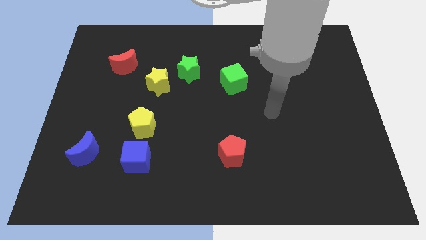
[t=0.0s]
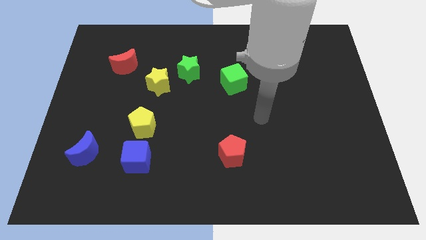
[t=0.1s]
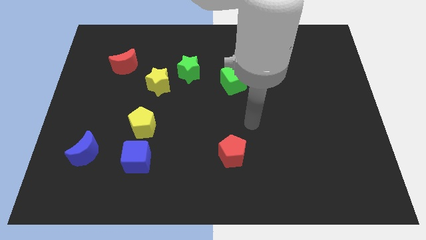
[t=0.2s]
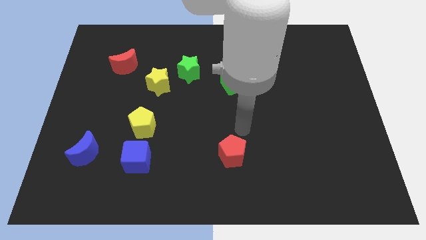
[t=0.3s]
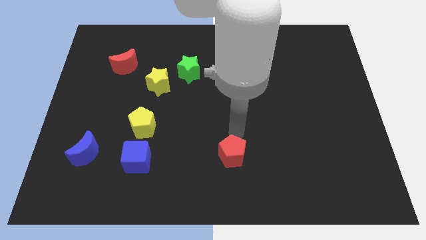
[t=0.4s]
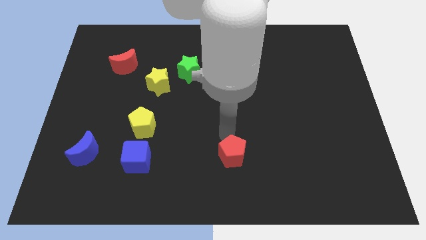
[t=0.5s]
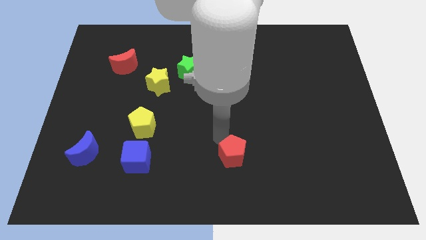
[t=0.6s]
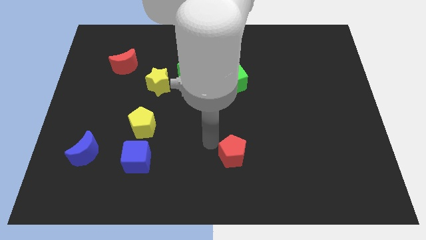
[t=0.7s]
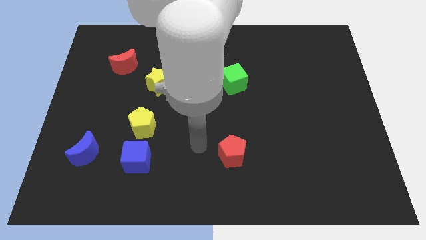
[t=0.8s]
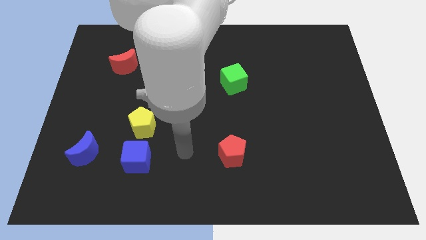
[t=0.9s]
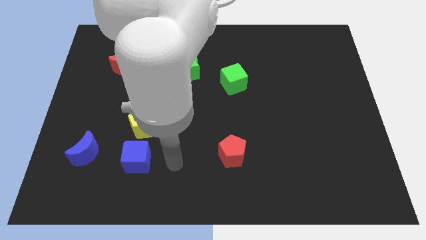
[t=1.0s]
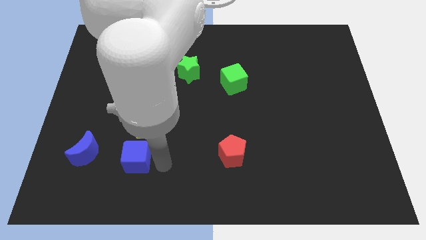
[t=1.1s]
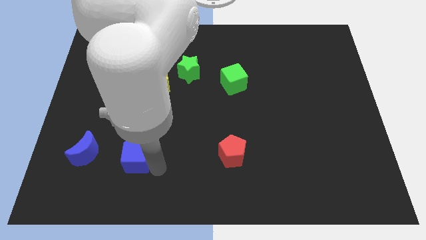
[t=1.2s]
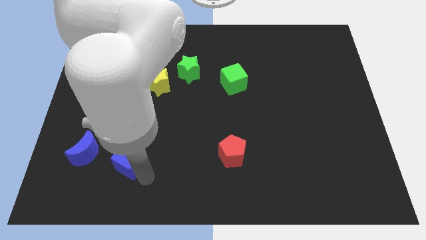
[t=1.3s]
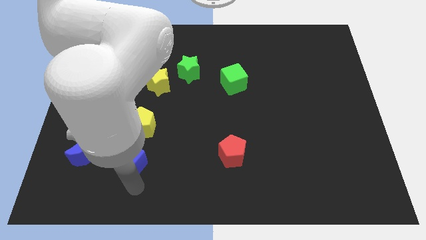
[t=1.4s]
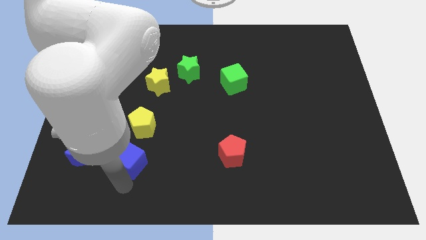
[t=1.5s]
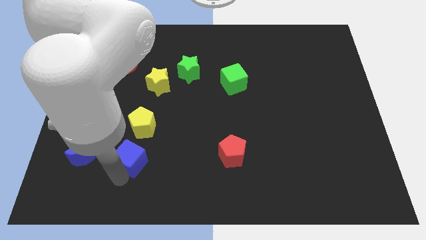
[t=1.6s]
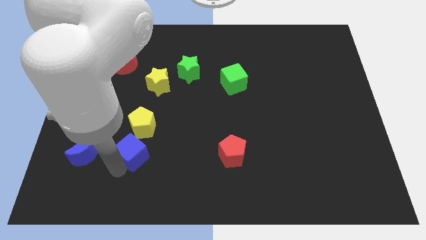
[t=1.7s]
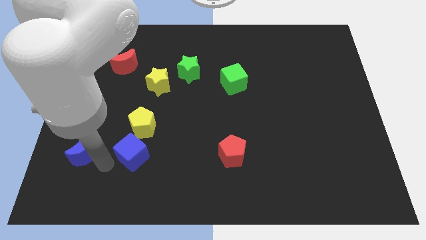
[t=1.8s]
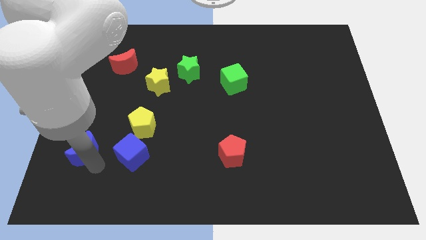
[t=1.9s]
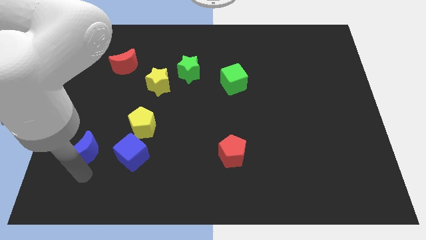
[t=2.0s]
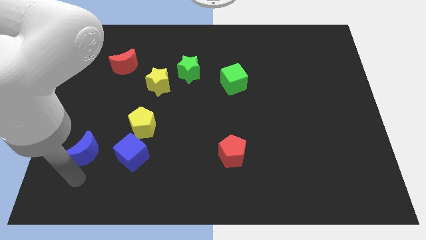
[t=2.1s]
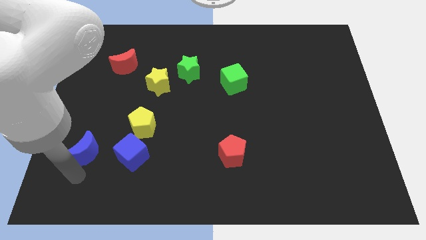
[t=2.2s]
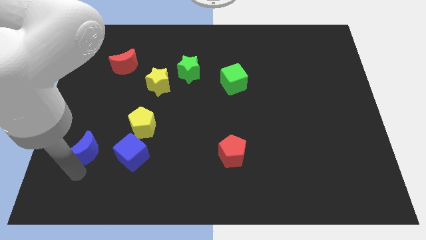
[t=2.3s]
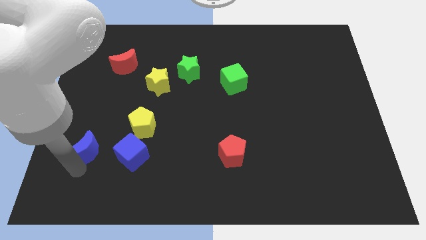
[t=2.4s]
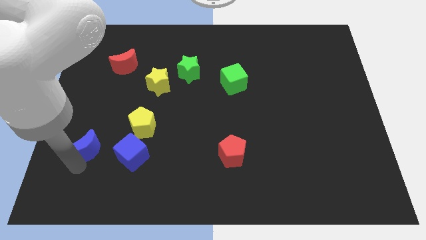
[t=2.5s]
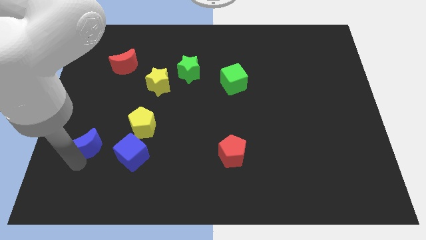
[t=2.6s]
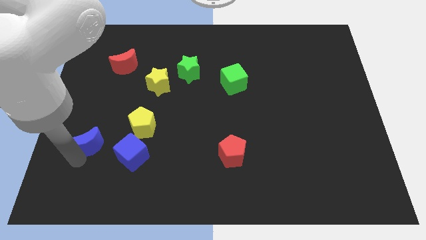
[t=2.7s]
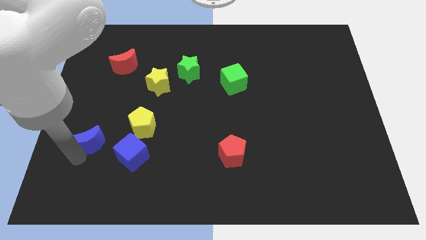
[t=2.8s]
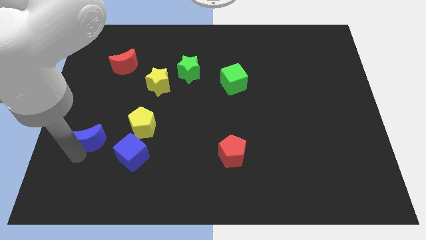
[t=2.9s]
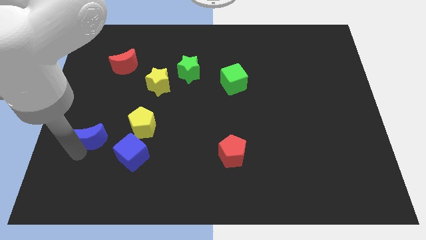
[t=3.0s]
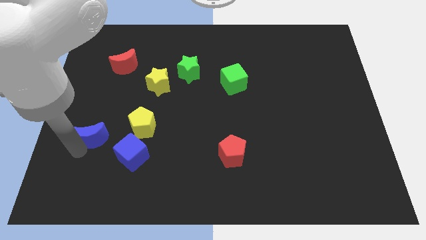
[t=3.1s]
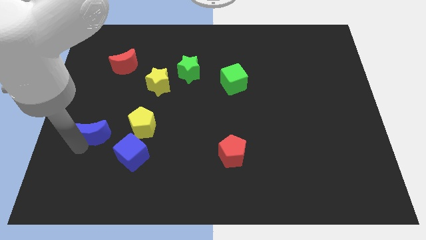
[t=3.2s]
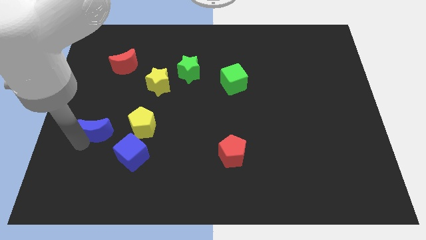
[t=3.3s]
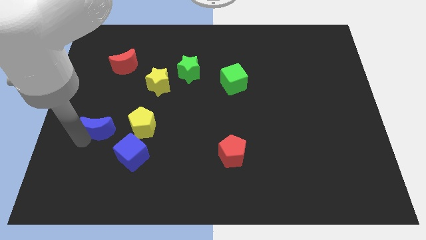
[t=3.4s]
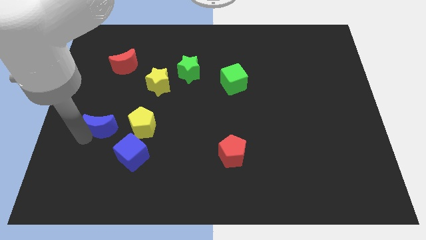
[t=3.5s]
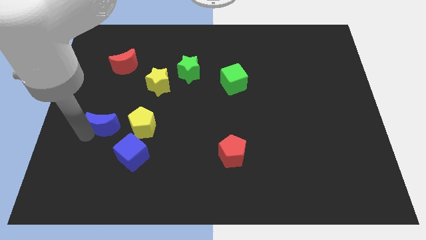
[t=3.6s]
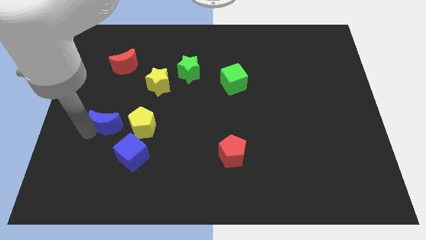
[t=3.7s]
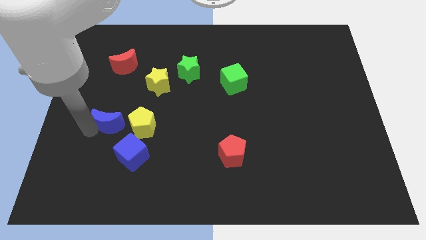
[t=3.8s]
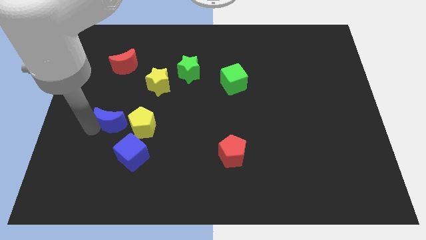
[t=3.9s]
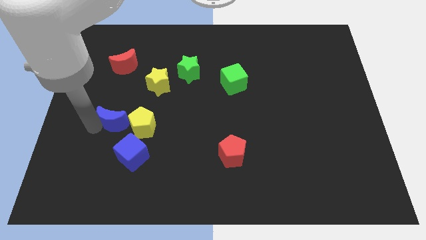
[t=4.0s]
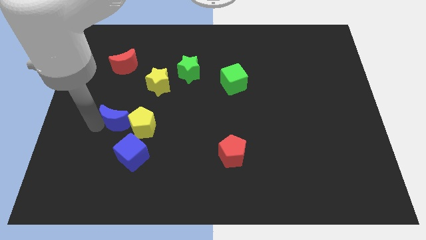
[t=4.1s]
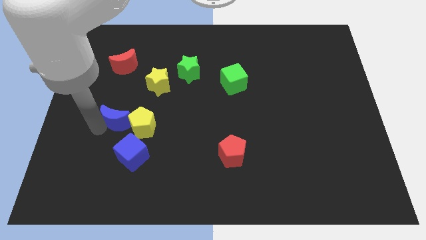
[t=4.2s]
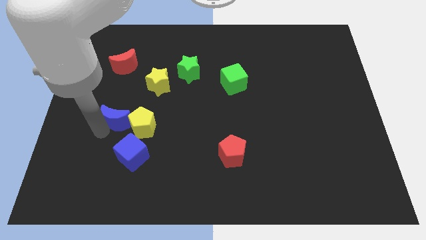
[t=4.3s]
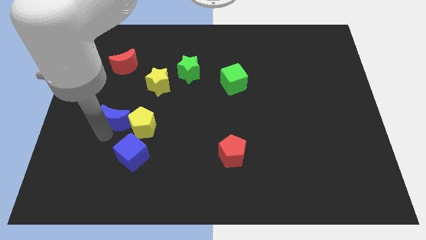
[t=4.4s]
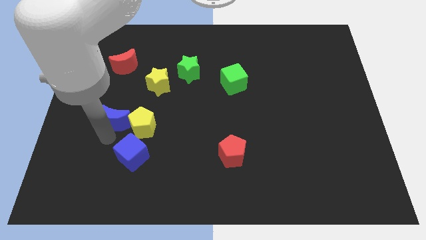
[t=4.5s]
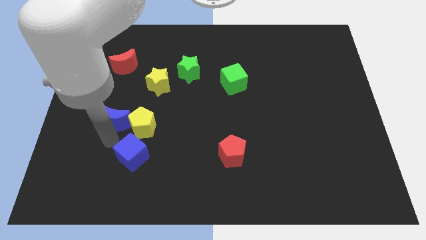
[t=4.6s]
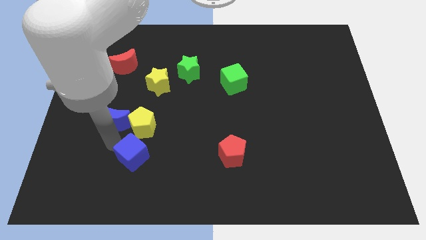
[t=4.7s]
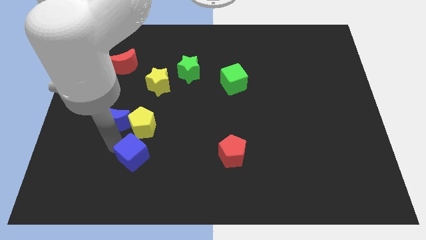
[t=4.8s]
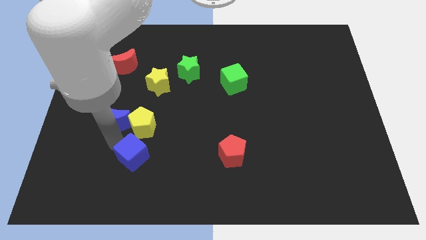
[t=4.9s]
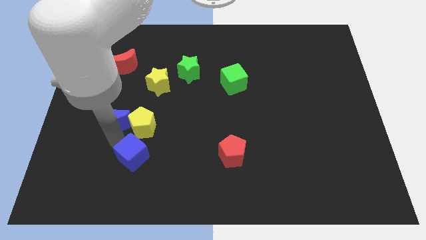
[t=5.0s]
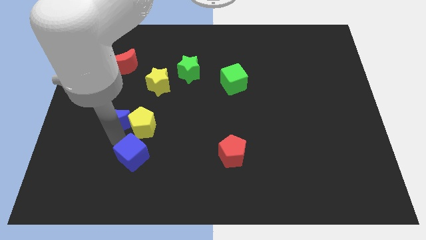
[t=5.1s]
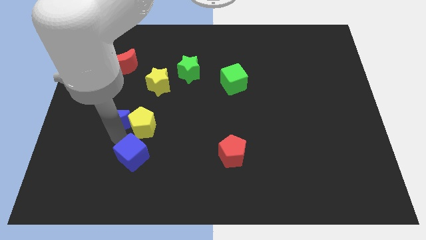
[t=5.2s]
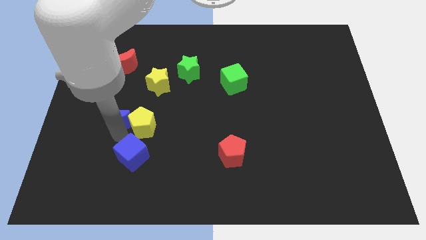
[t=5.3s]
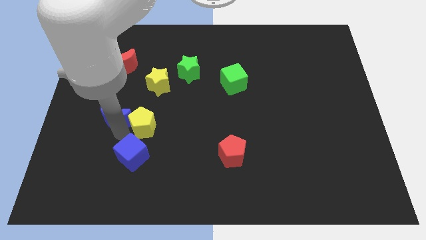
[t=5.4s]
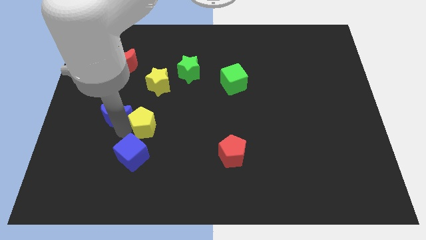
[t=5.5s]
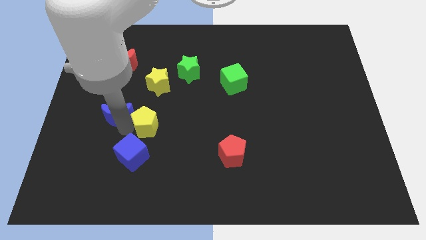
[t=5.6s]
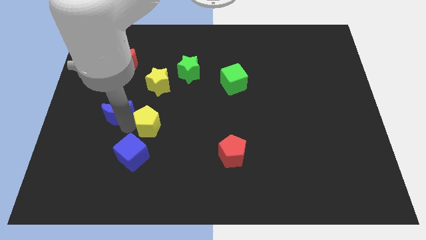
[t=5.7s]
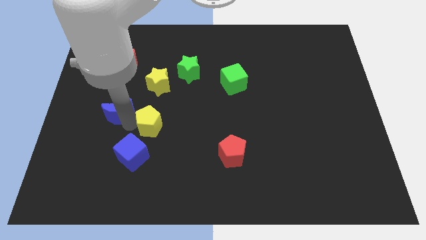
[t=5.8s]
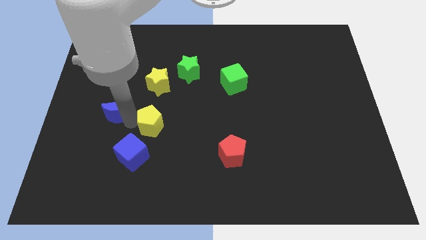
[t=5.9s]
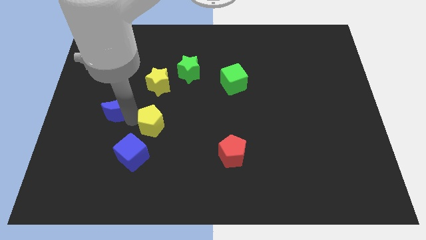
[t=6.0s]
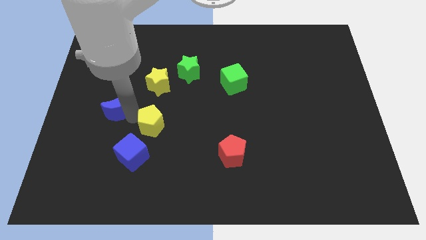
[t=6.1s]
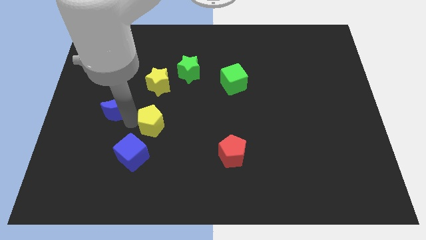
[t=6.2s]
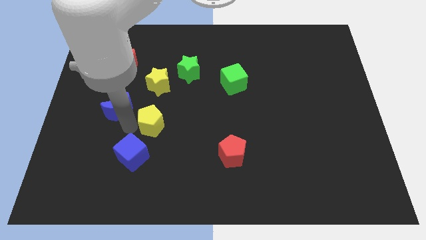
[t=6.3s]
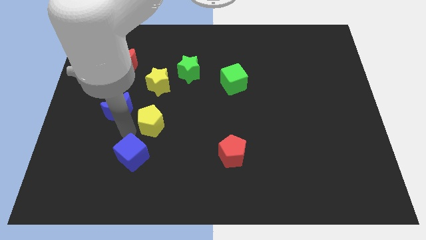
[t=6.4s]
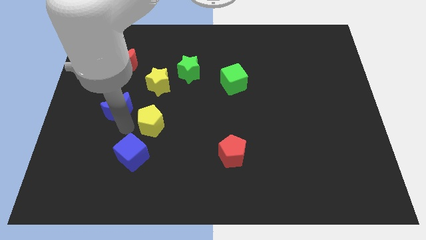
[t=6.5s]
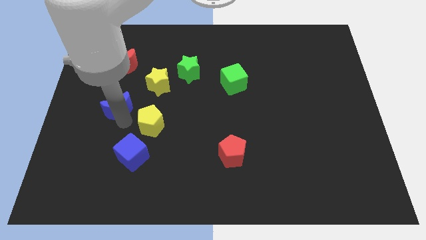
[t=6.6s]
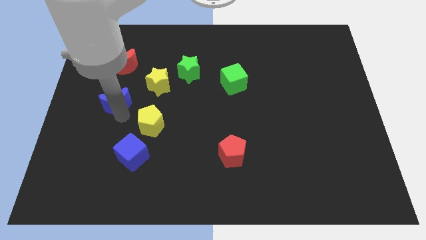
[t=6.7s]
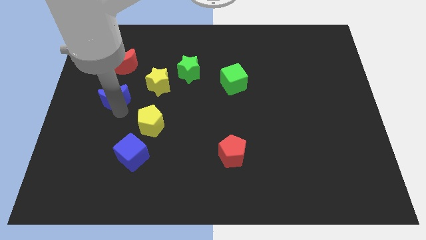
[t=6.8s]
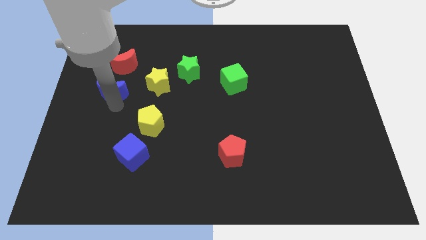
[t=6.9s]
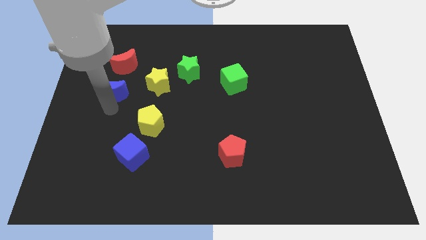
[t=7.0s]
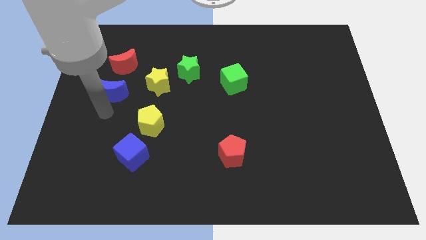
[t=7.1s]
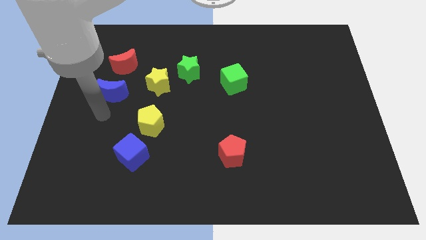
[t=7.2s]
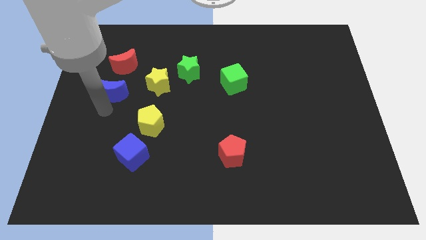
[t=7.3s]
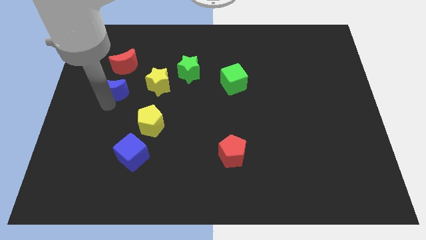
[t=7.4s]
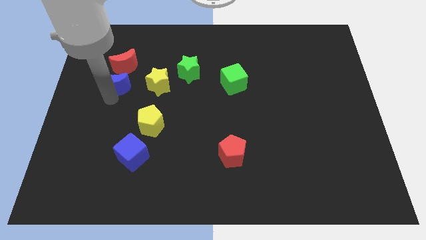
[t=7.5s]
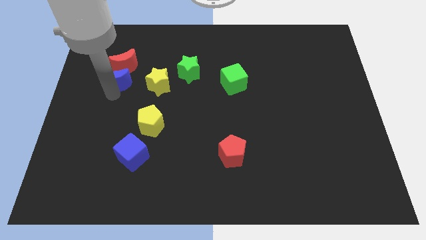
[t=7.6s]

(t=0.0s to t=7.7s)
push the blue moon close to the red moon

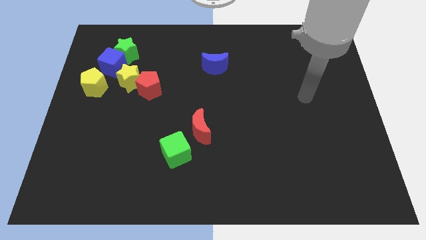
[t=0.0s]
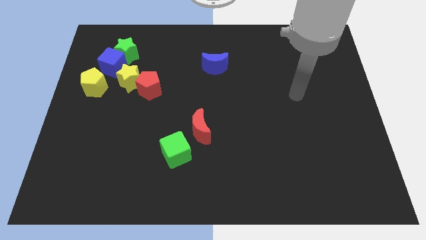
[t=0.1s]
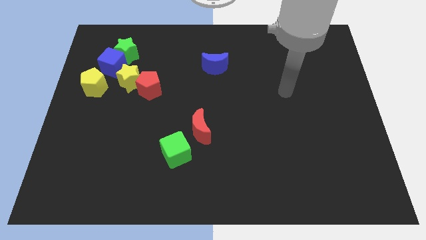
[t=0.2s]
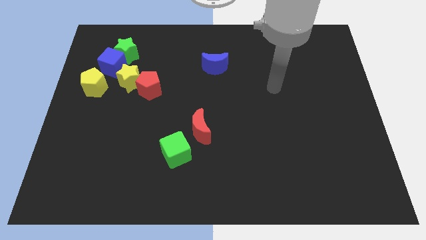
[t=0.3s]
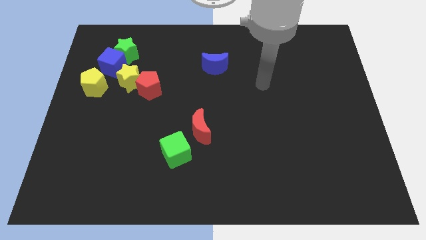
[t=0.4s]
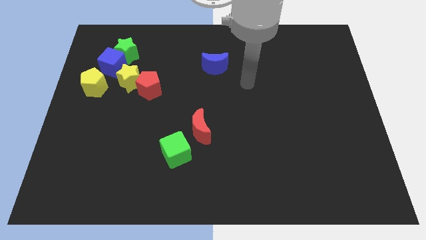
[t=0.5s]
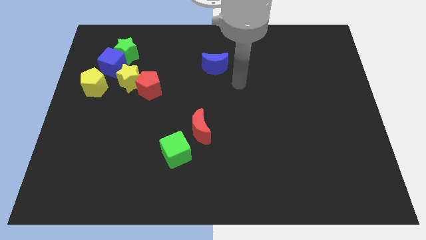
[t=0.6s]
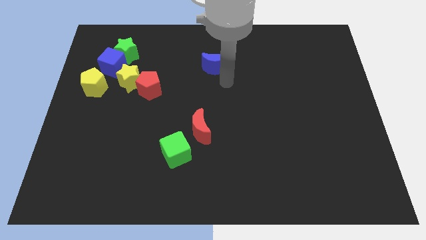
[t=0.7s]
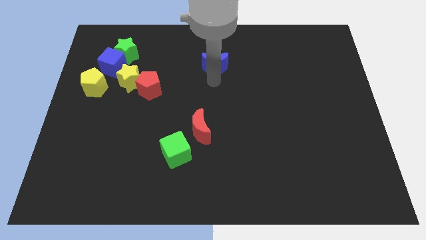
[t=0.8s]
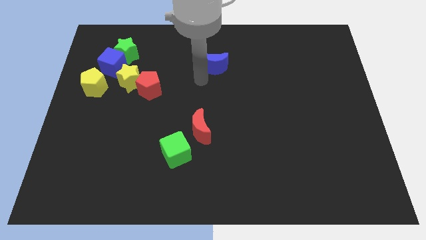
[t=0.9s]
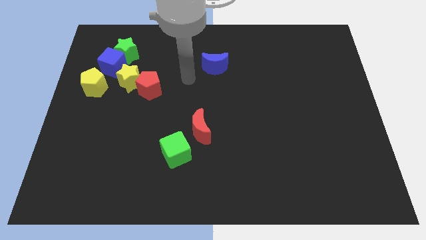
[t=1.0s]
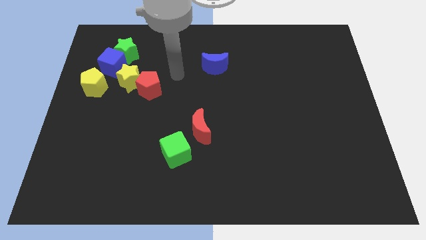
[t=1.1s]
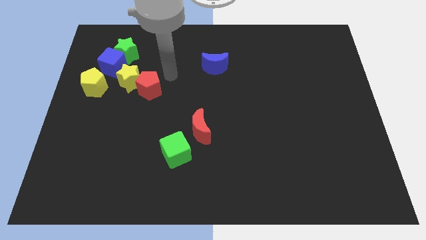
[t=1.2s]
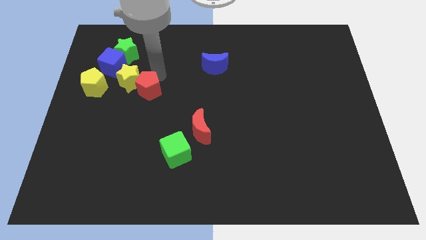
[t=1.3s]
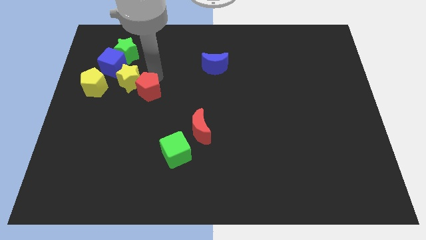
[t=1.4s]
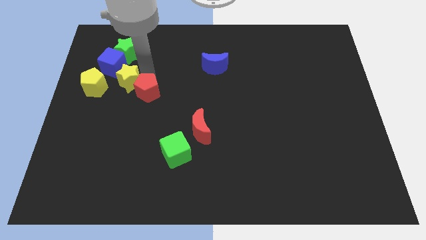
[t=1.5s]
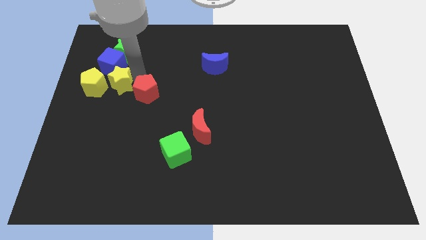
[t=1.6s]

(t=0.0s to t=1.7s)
put the yellow star close to the yellow pentagon
